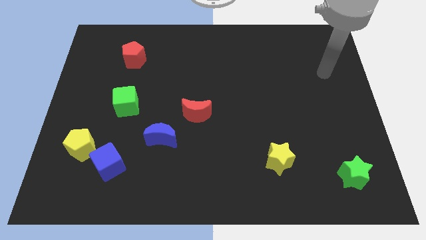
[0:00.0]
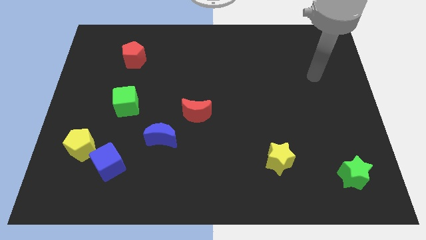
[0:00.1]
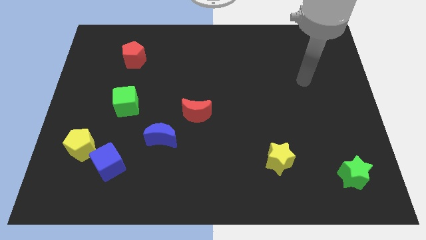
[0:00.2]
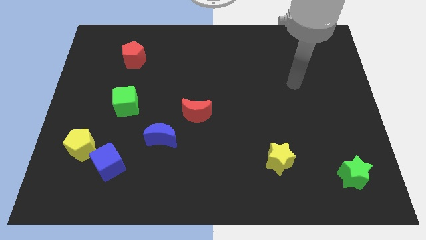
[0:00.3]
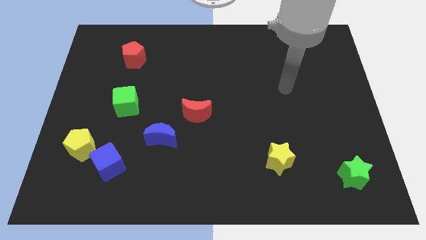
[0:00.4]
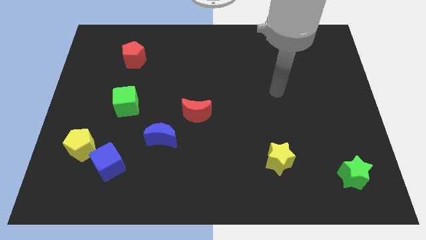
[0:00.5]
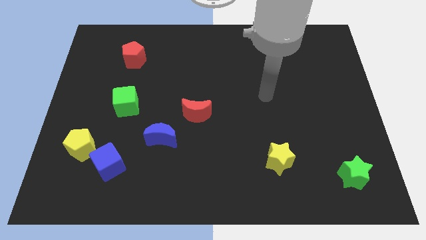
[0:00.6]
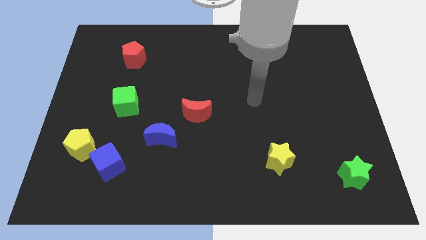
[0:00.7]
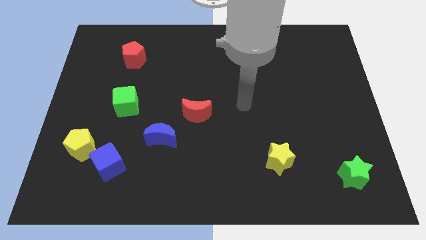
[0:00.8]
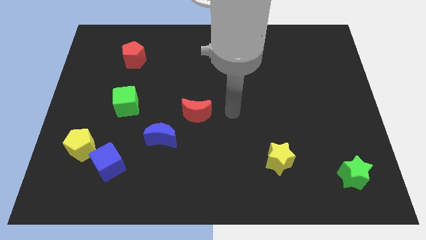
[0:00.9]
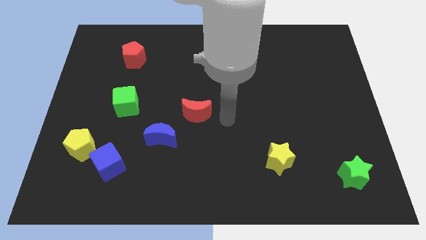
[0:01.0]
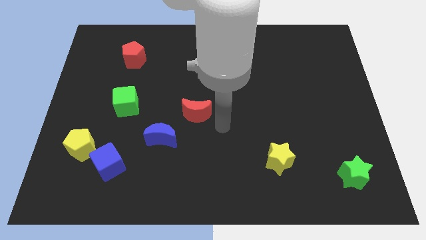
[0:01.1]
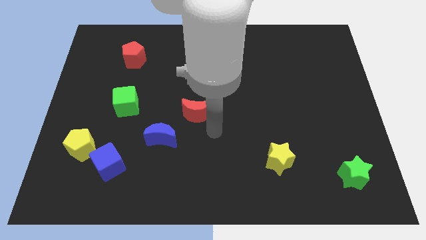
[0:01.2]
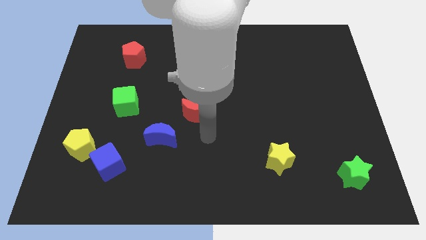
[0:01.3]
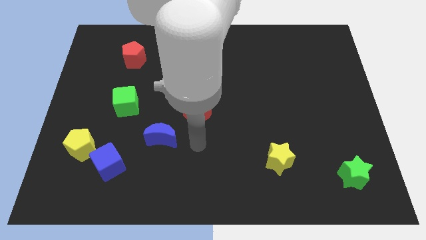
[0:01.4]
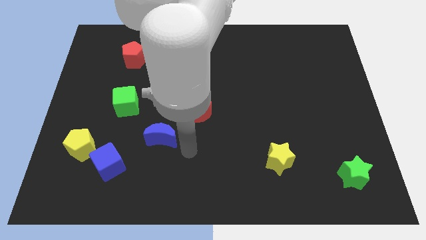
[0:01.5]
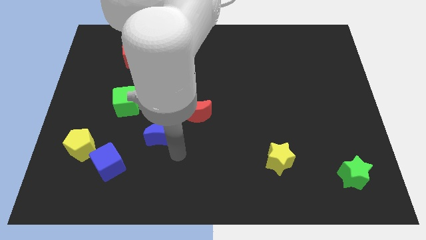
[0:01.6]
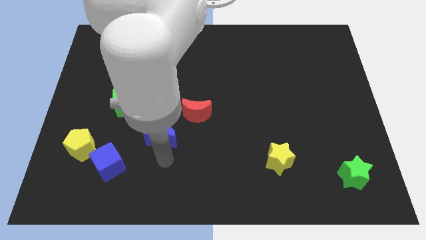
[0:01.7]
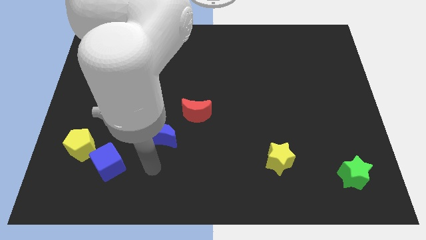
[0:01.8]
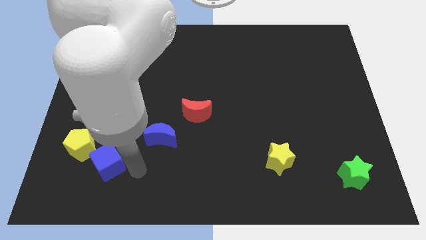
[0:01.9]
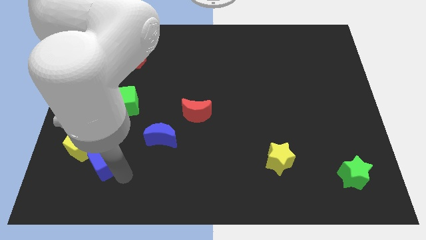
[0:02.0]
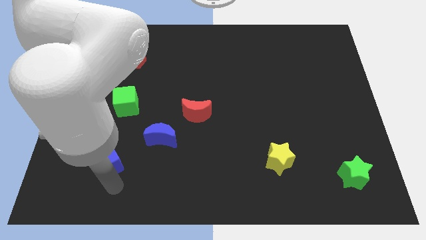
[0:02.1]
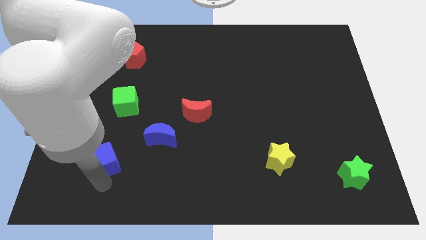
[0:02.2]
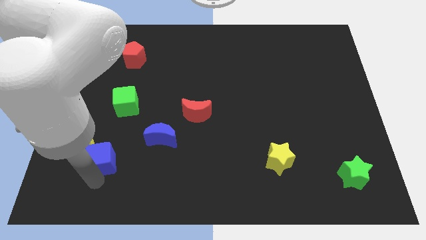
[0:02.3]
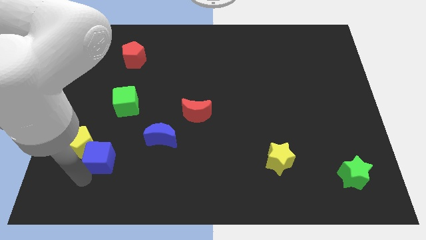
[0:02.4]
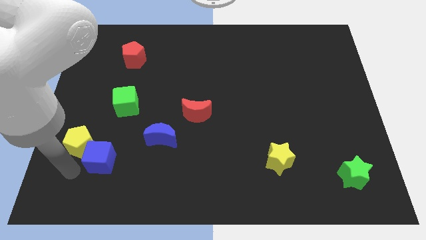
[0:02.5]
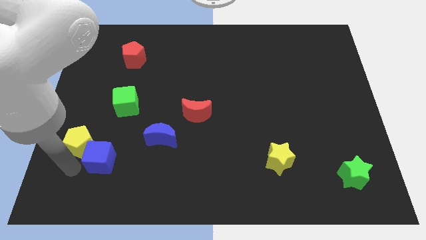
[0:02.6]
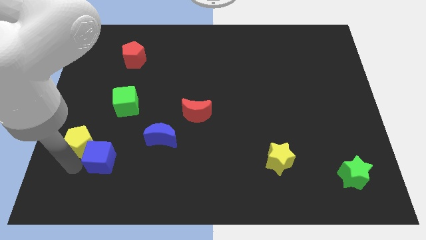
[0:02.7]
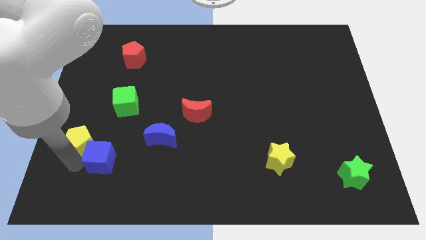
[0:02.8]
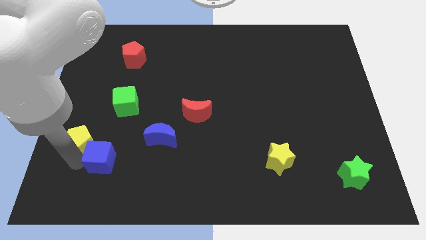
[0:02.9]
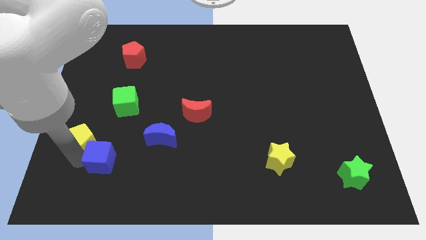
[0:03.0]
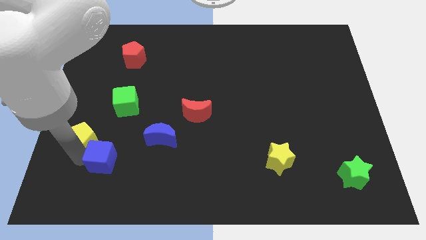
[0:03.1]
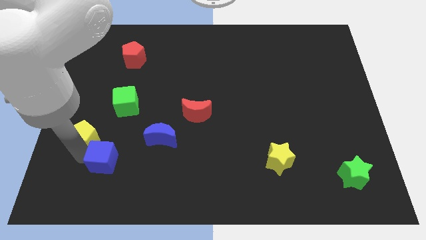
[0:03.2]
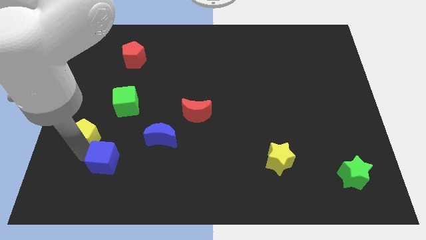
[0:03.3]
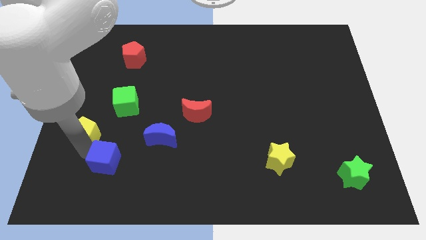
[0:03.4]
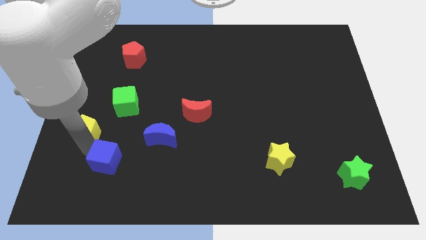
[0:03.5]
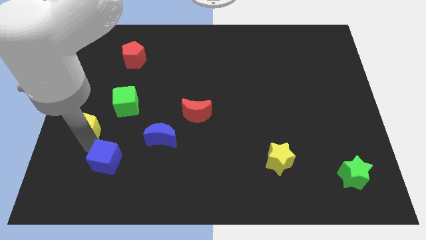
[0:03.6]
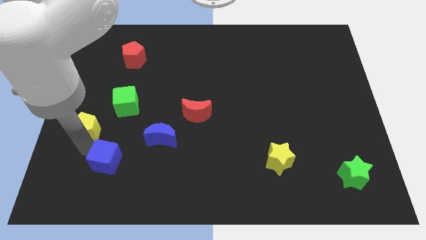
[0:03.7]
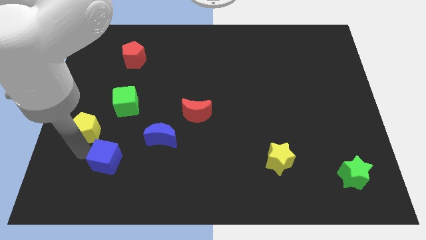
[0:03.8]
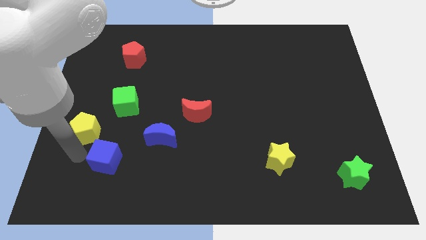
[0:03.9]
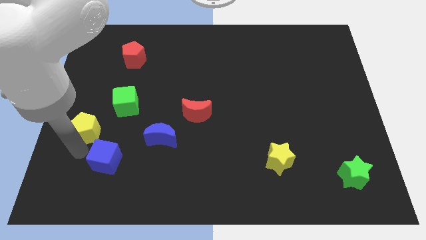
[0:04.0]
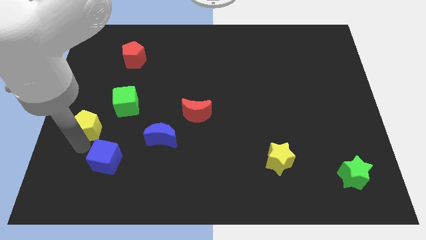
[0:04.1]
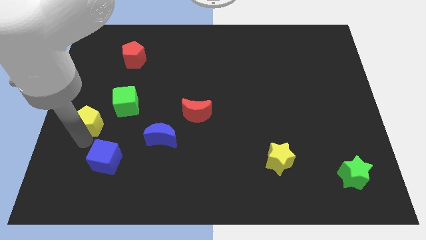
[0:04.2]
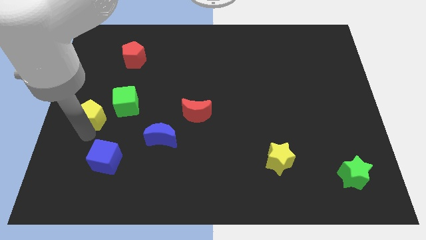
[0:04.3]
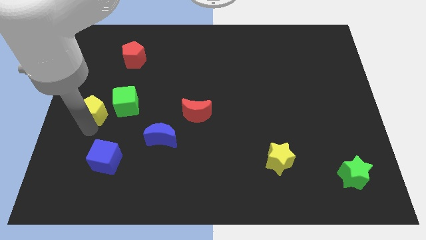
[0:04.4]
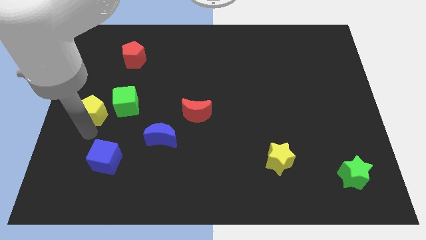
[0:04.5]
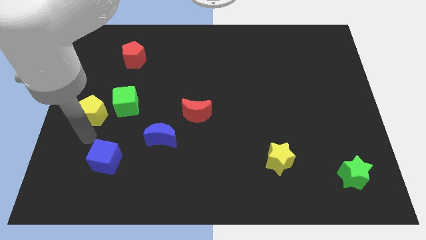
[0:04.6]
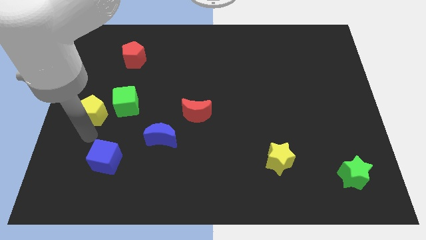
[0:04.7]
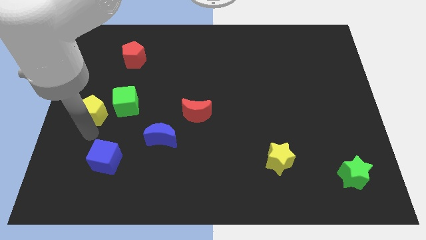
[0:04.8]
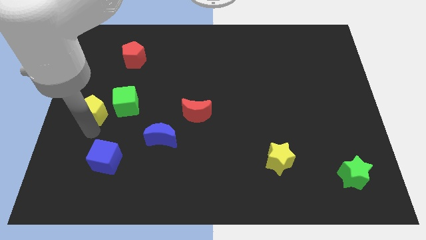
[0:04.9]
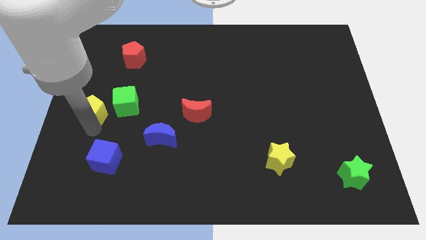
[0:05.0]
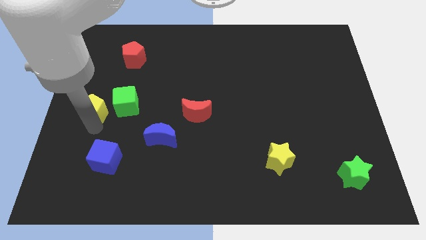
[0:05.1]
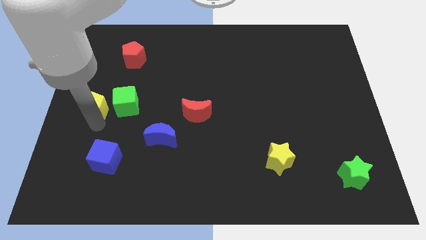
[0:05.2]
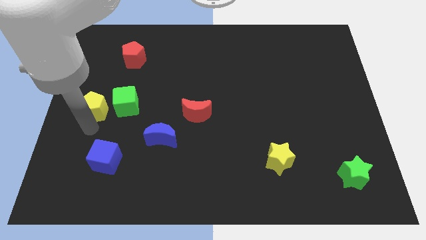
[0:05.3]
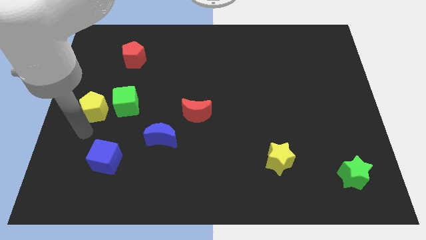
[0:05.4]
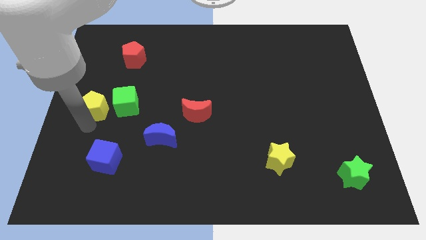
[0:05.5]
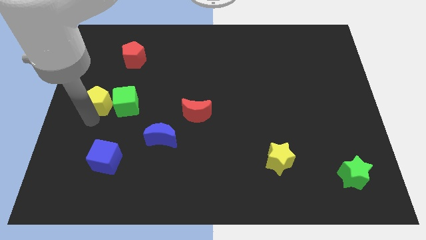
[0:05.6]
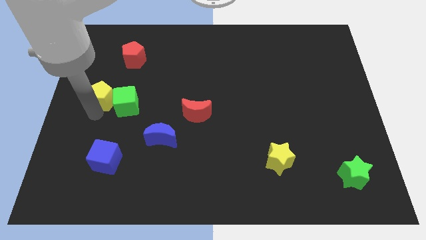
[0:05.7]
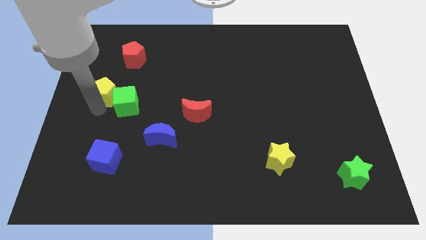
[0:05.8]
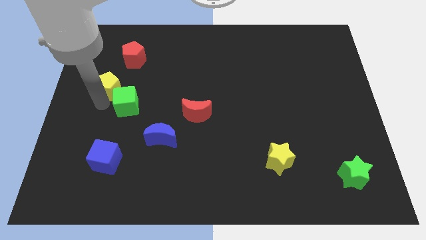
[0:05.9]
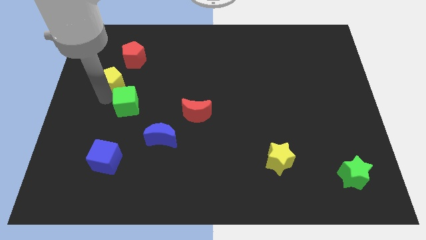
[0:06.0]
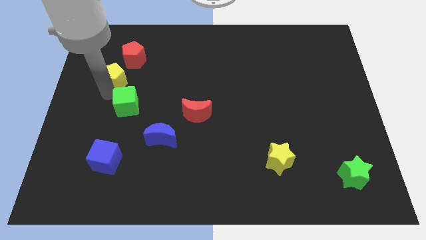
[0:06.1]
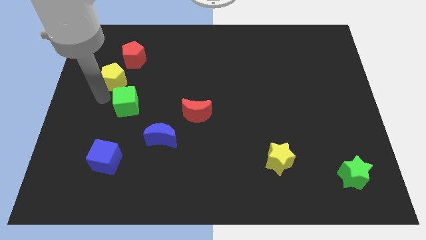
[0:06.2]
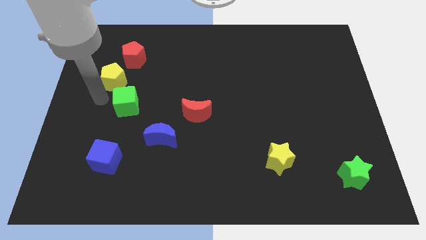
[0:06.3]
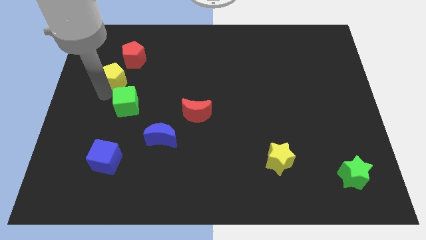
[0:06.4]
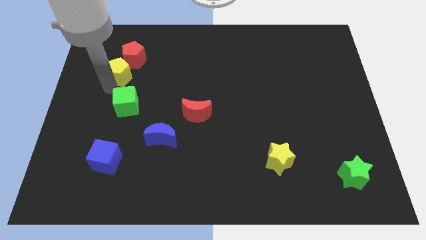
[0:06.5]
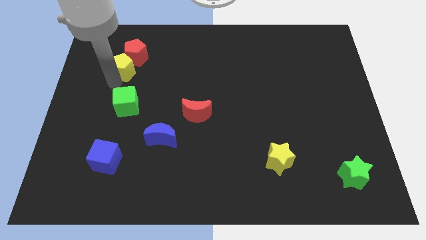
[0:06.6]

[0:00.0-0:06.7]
move the yellow pentagon next to the red pentagon
